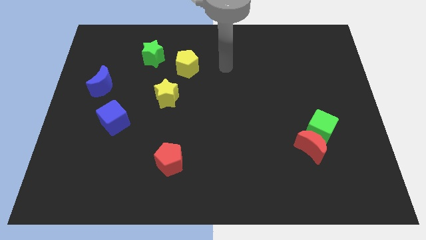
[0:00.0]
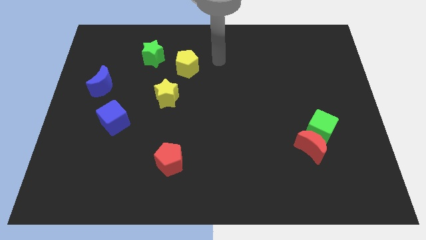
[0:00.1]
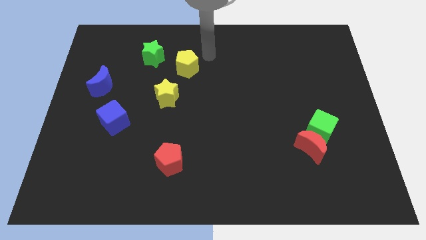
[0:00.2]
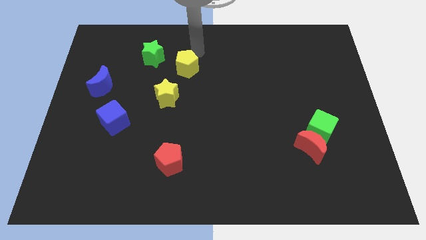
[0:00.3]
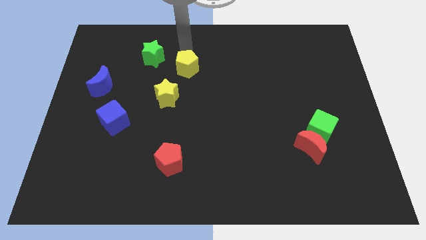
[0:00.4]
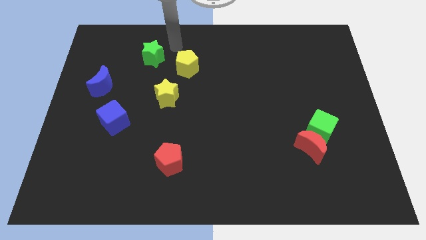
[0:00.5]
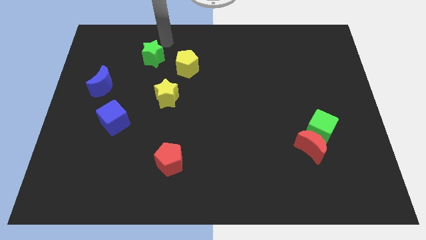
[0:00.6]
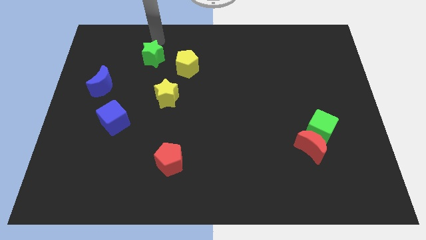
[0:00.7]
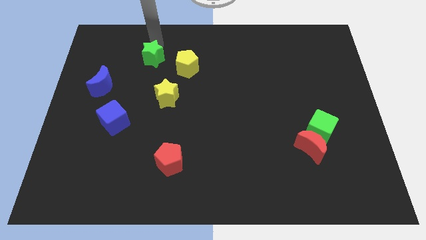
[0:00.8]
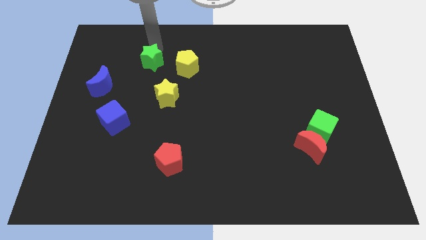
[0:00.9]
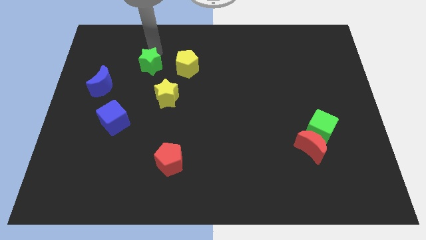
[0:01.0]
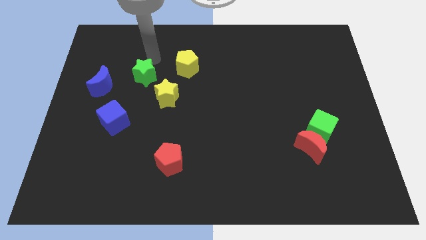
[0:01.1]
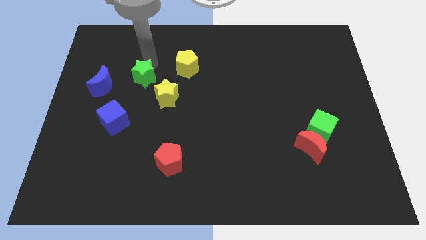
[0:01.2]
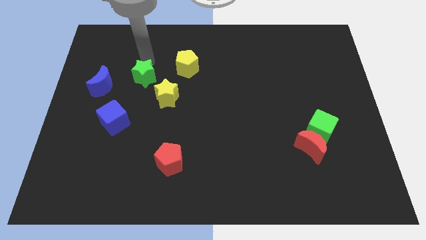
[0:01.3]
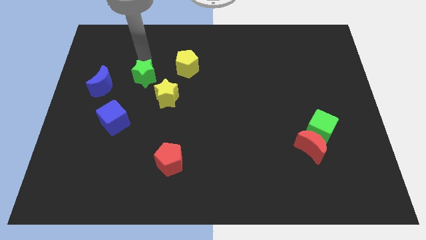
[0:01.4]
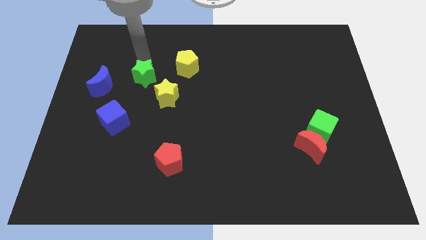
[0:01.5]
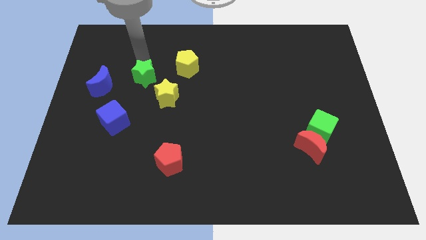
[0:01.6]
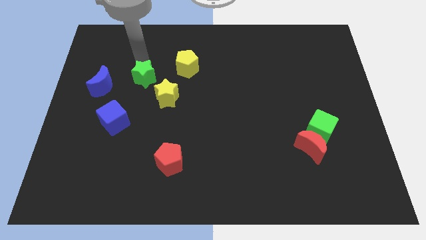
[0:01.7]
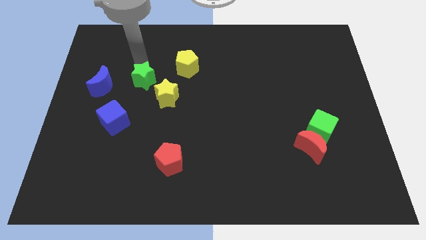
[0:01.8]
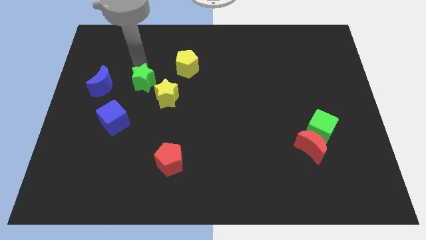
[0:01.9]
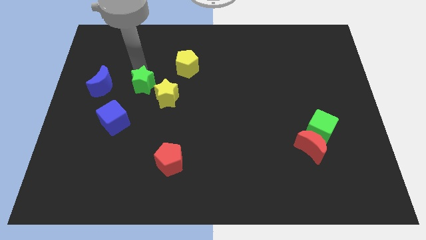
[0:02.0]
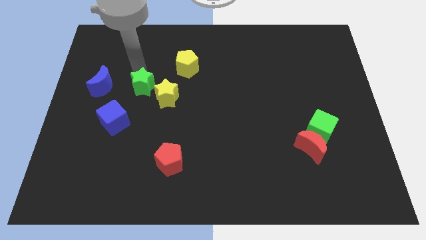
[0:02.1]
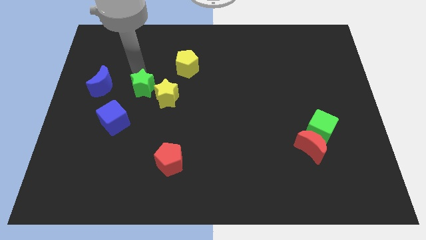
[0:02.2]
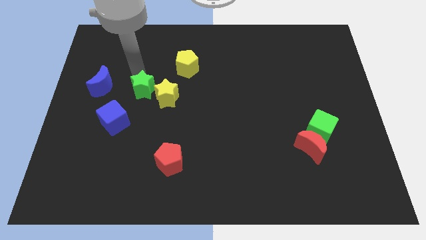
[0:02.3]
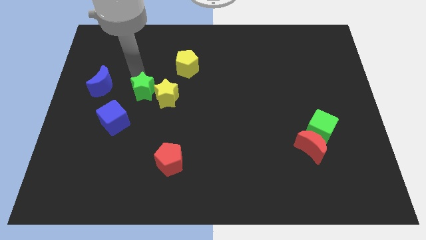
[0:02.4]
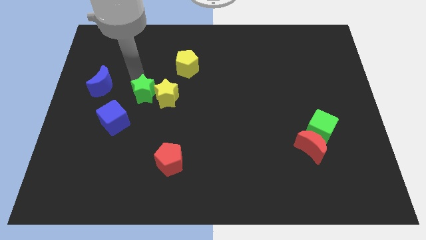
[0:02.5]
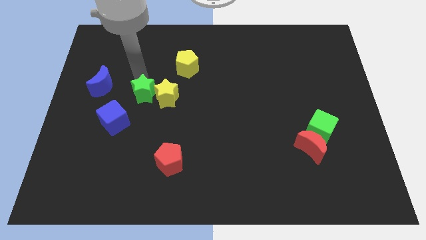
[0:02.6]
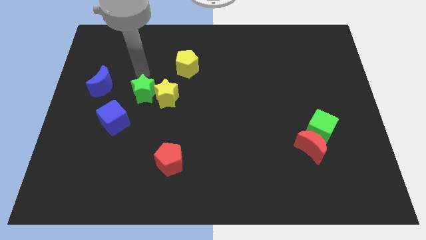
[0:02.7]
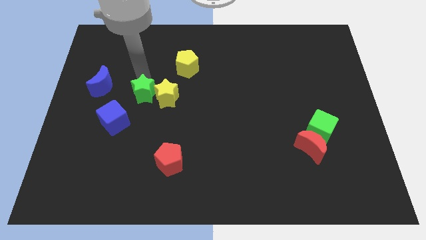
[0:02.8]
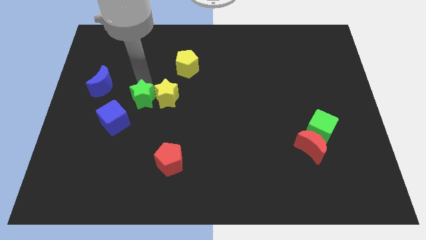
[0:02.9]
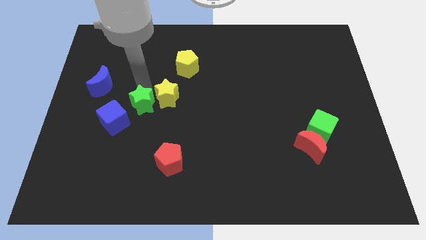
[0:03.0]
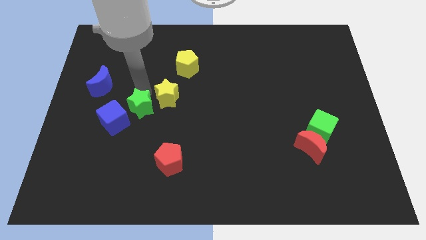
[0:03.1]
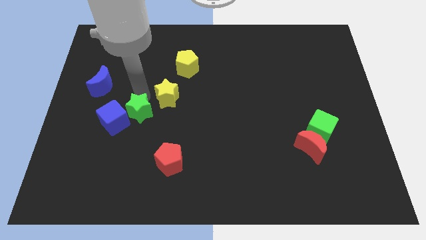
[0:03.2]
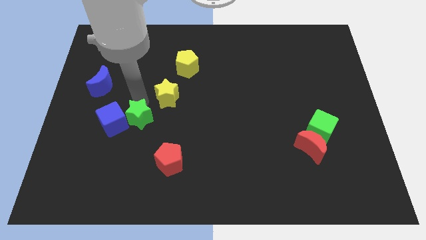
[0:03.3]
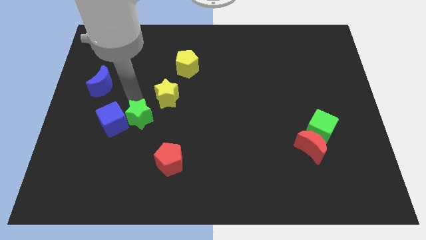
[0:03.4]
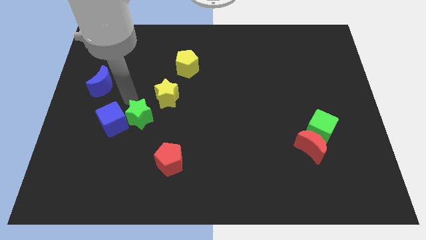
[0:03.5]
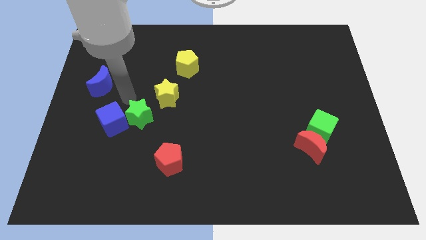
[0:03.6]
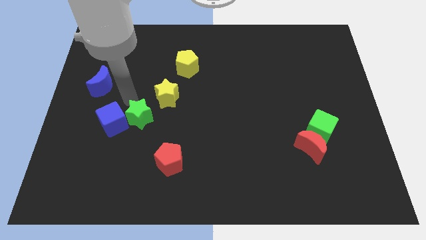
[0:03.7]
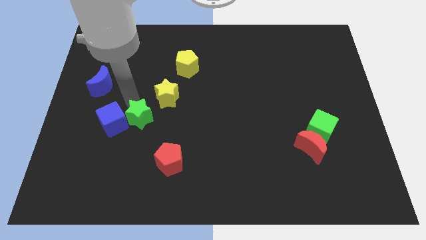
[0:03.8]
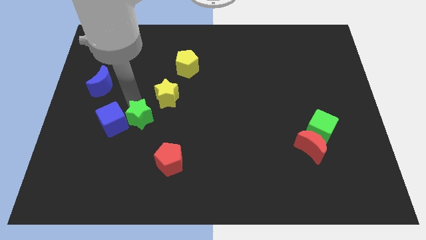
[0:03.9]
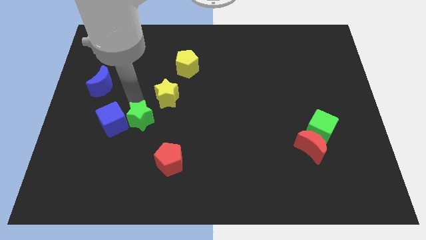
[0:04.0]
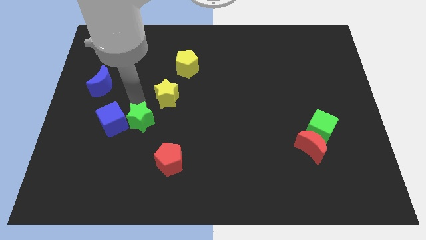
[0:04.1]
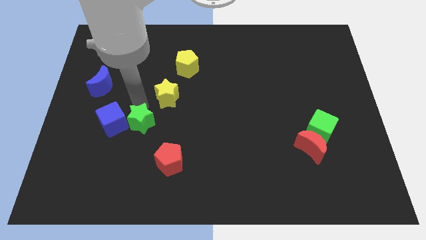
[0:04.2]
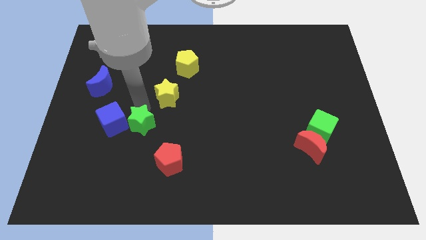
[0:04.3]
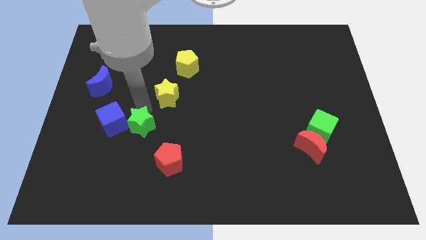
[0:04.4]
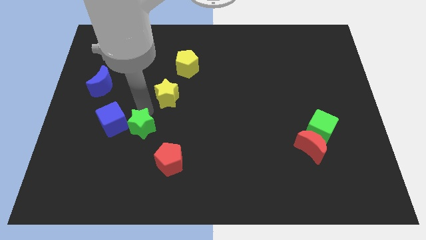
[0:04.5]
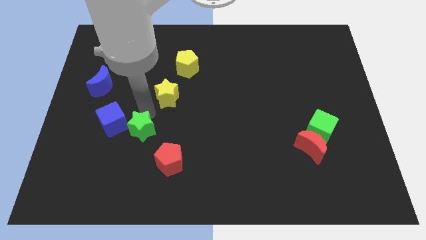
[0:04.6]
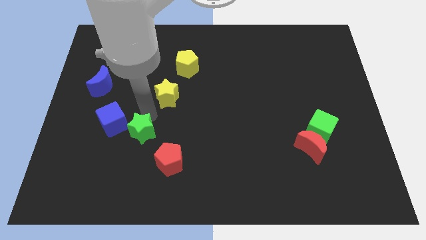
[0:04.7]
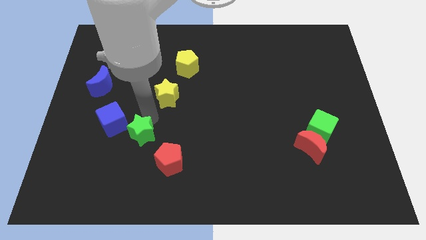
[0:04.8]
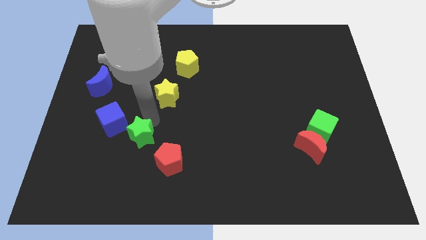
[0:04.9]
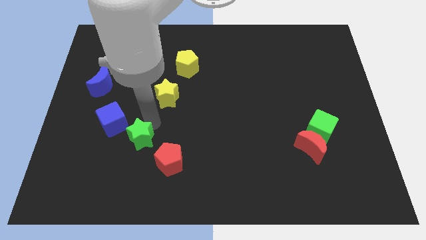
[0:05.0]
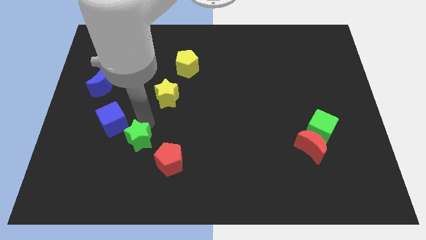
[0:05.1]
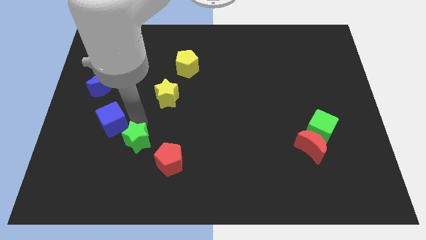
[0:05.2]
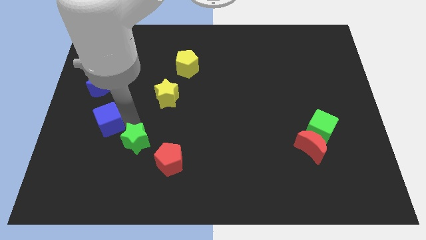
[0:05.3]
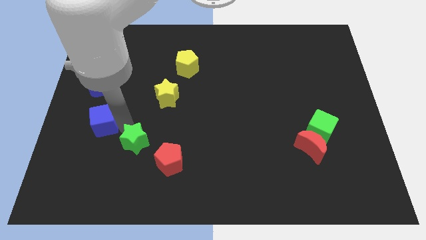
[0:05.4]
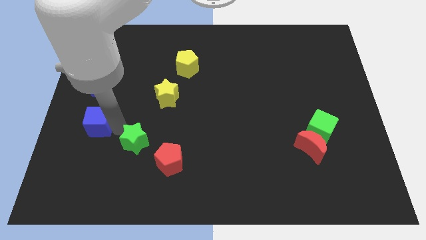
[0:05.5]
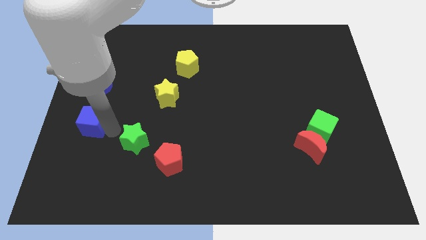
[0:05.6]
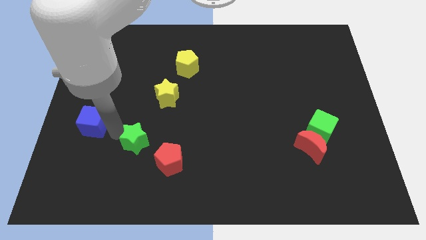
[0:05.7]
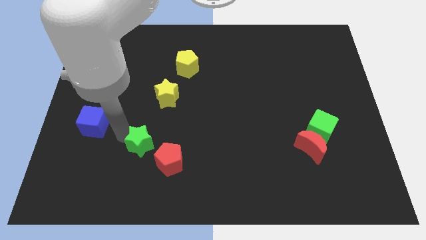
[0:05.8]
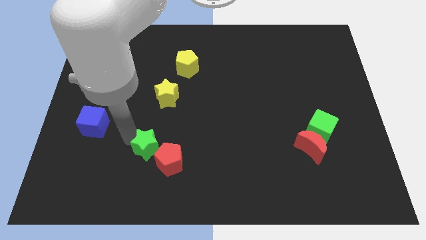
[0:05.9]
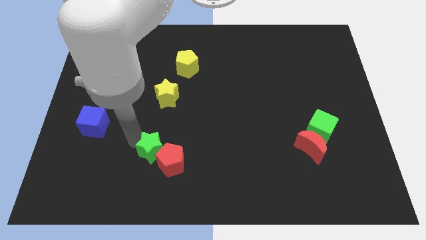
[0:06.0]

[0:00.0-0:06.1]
put the green star close to the red pentagon

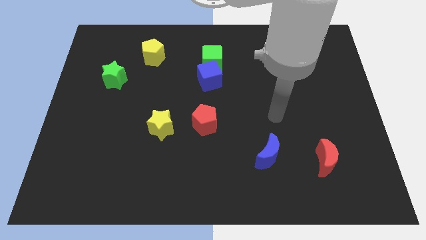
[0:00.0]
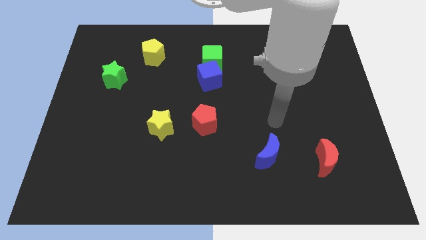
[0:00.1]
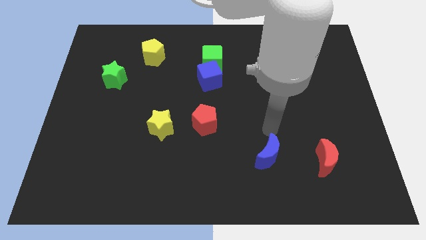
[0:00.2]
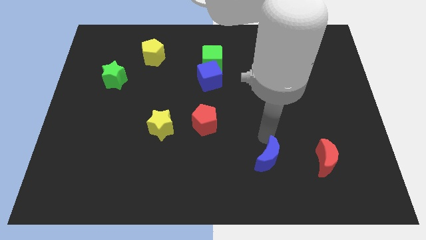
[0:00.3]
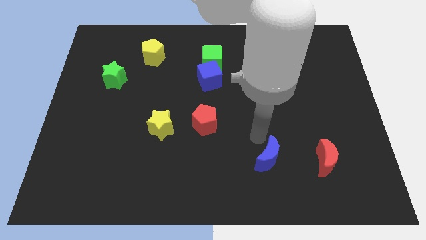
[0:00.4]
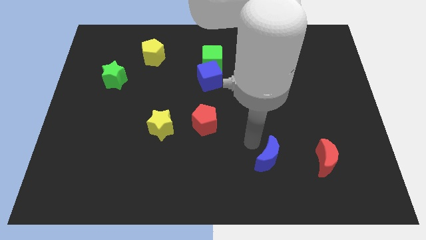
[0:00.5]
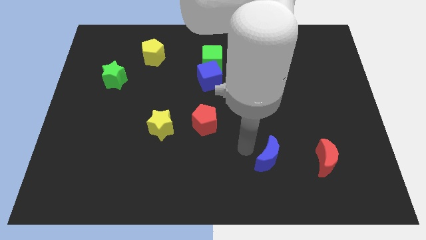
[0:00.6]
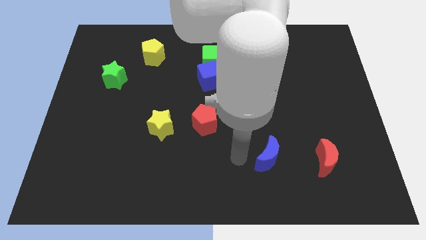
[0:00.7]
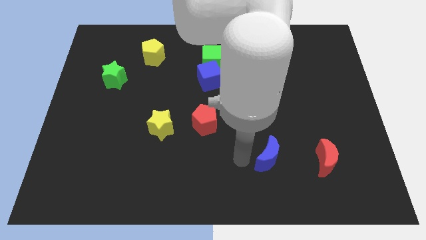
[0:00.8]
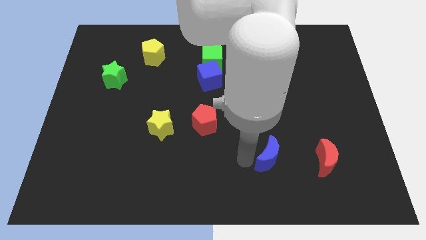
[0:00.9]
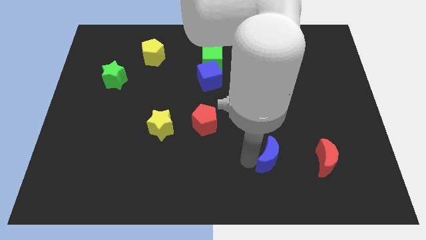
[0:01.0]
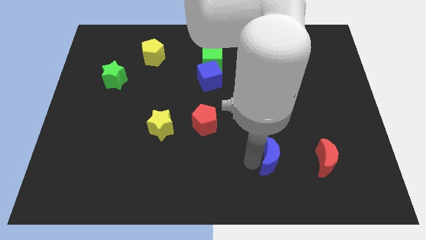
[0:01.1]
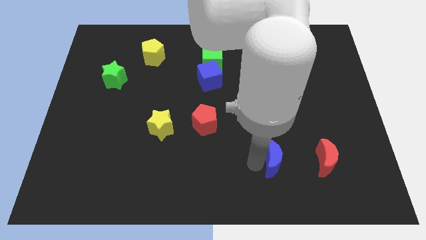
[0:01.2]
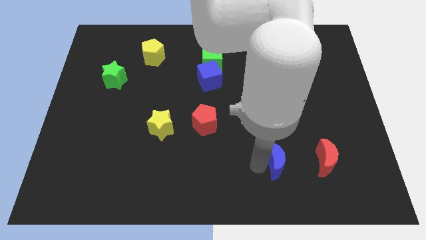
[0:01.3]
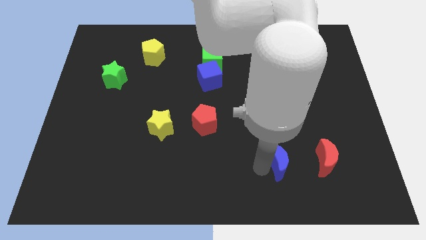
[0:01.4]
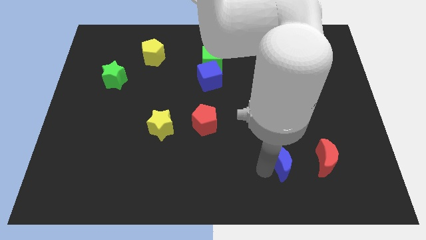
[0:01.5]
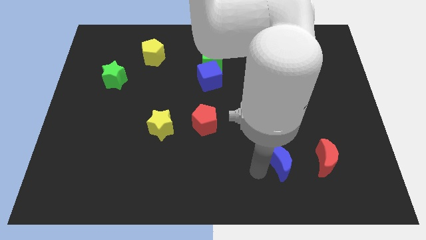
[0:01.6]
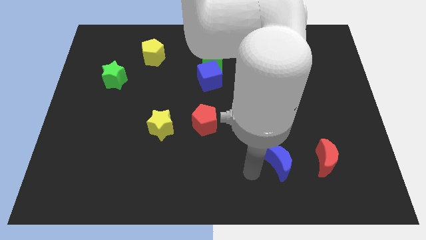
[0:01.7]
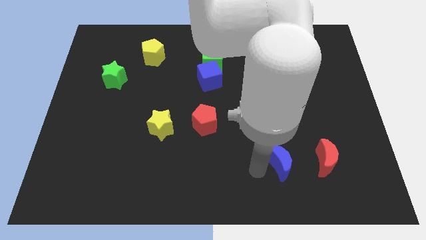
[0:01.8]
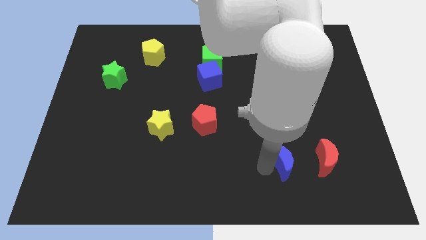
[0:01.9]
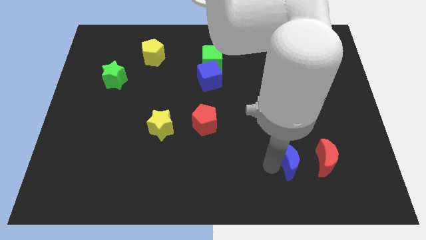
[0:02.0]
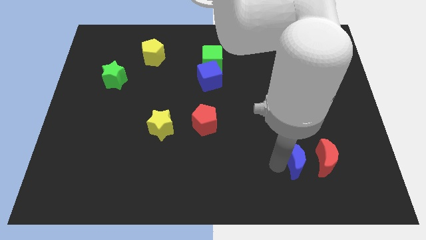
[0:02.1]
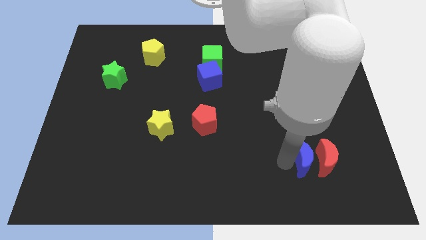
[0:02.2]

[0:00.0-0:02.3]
put the blue moon close to the red moon
